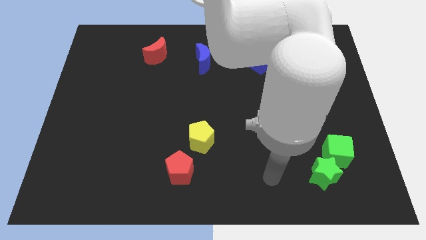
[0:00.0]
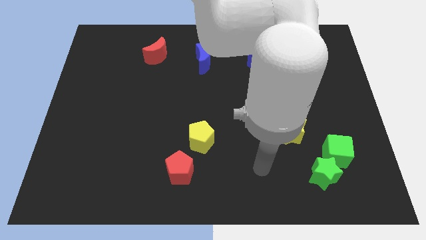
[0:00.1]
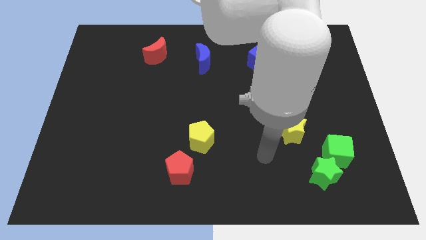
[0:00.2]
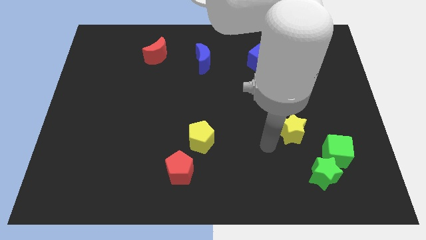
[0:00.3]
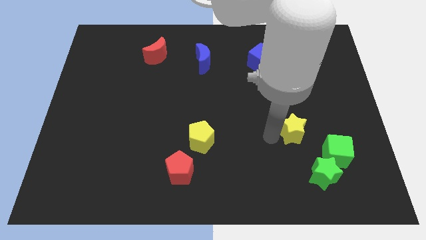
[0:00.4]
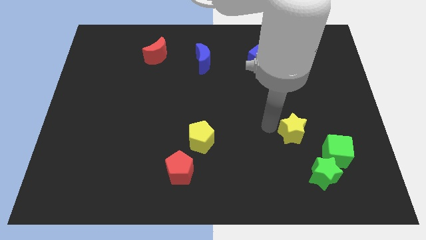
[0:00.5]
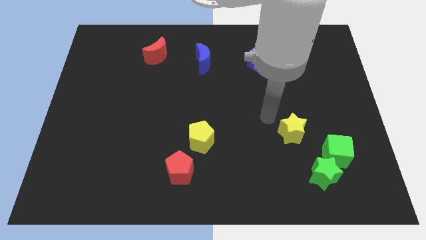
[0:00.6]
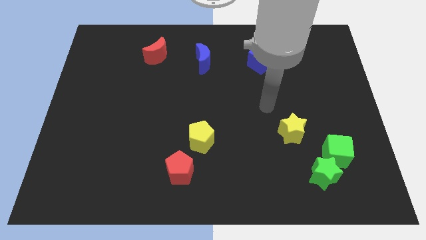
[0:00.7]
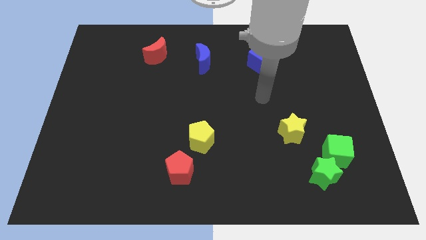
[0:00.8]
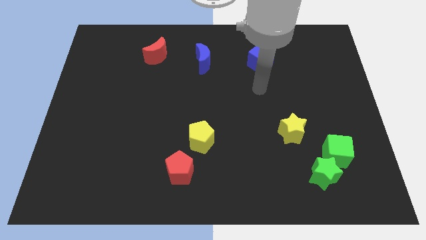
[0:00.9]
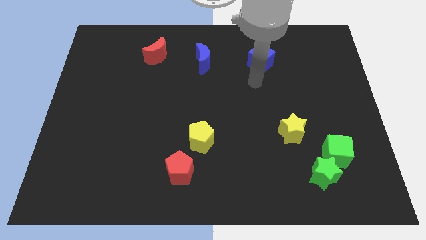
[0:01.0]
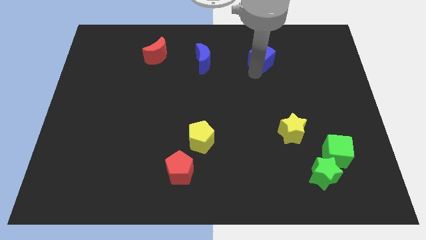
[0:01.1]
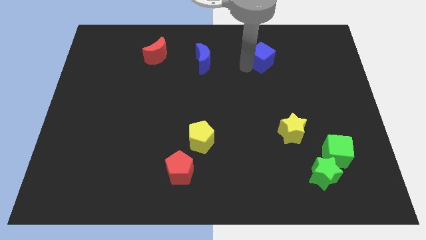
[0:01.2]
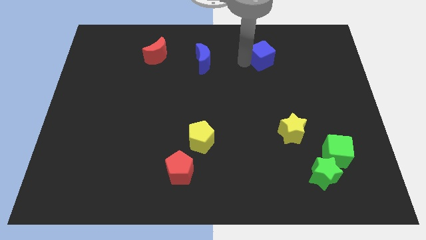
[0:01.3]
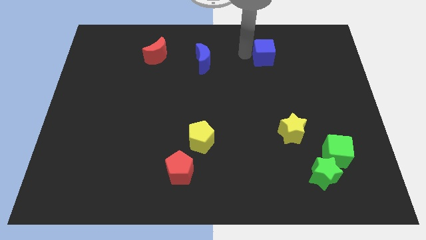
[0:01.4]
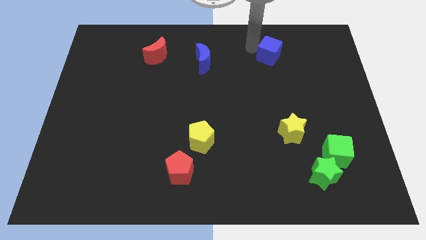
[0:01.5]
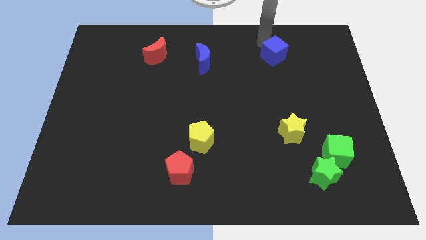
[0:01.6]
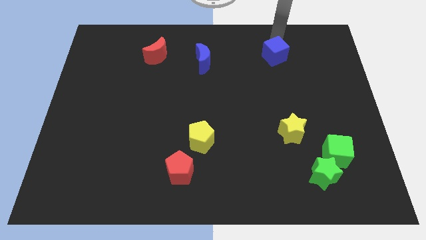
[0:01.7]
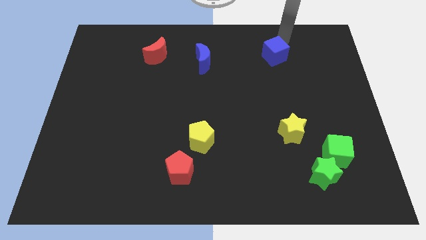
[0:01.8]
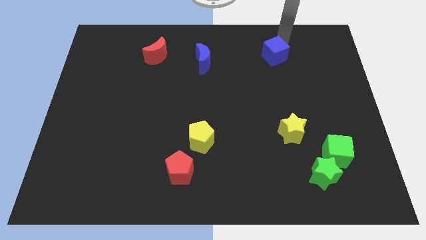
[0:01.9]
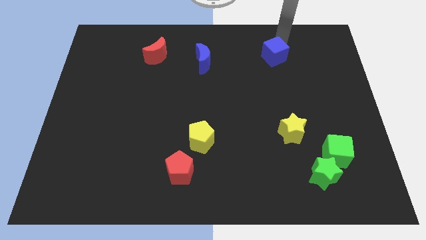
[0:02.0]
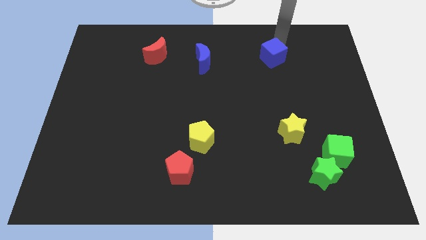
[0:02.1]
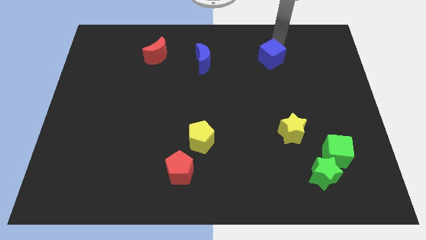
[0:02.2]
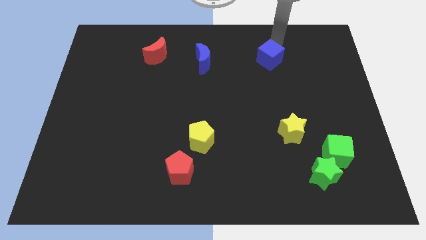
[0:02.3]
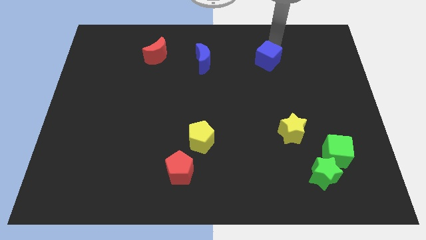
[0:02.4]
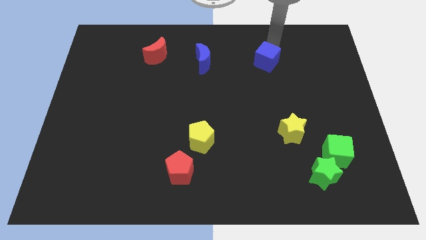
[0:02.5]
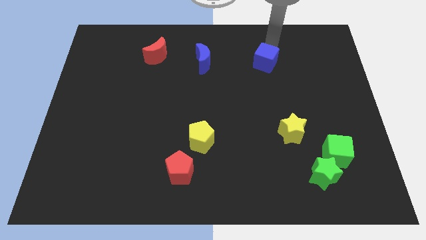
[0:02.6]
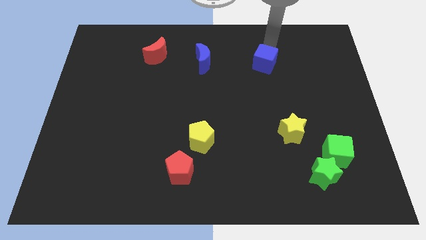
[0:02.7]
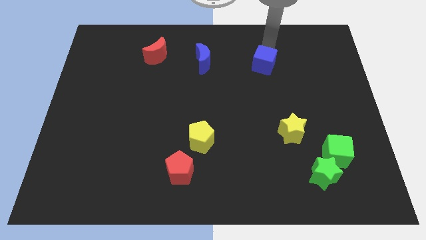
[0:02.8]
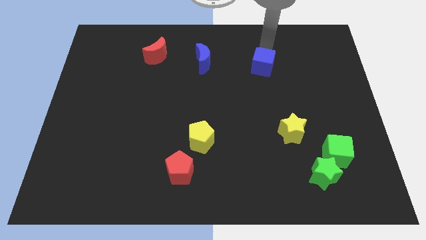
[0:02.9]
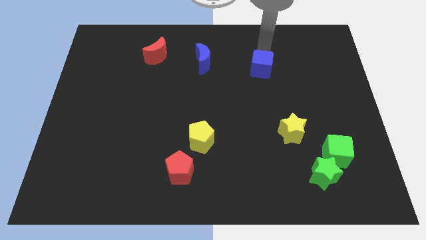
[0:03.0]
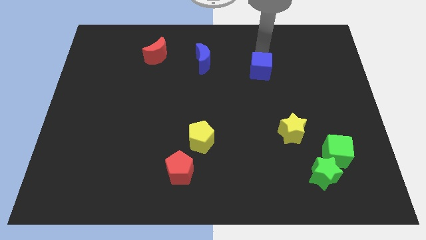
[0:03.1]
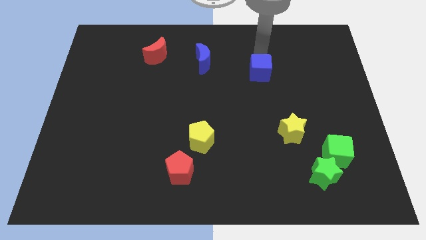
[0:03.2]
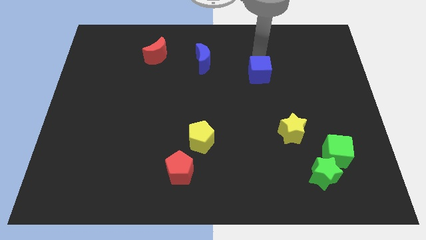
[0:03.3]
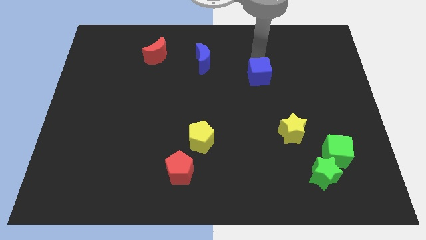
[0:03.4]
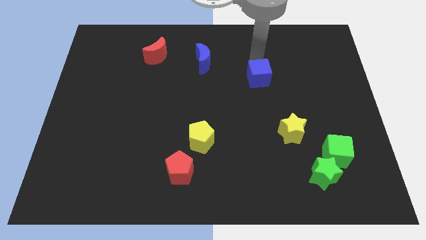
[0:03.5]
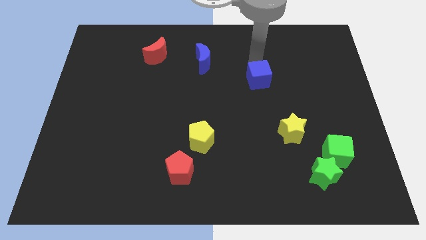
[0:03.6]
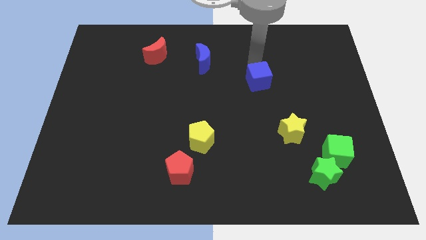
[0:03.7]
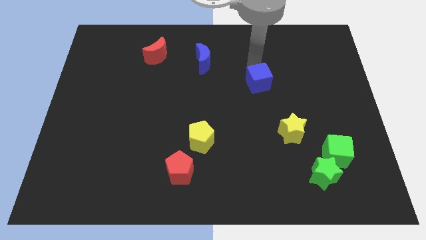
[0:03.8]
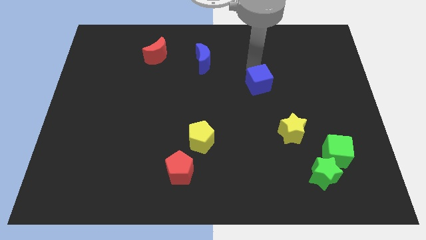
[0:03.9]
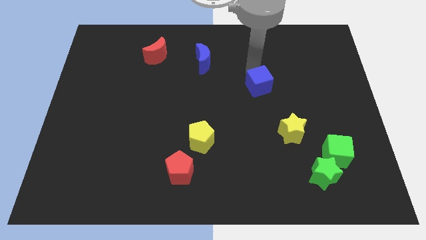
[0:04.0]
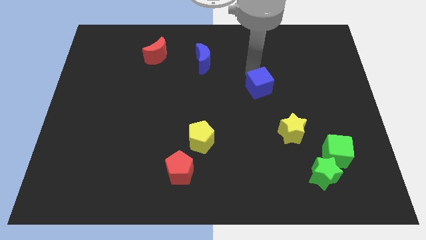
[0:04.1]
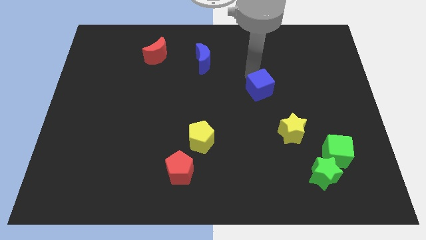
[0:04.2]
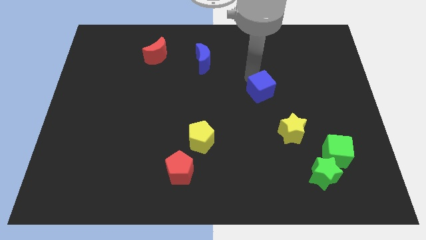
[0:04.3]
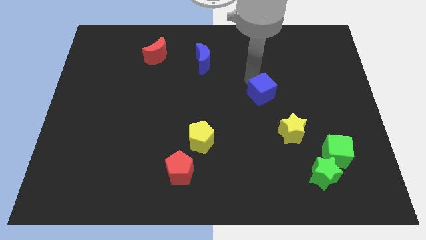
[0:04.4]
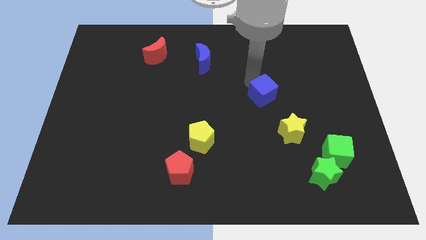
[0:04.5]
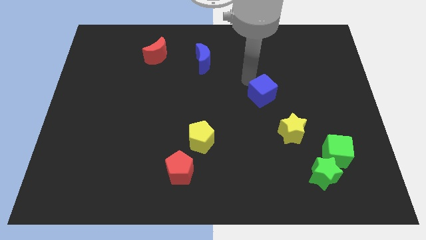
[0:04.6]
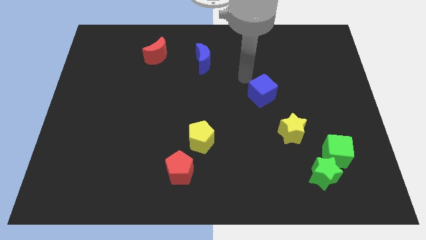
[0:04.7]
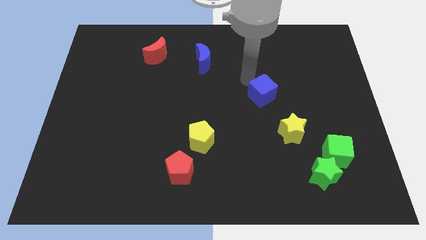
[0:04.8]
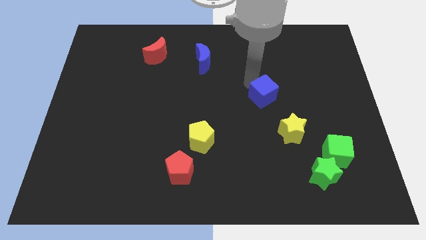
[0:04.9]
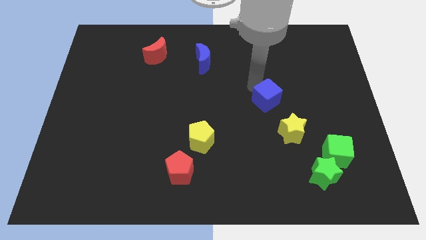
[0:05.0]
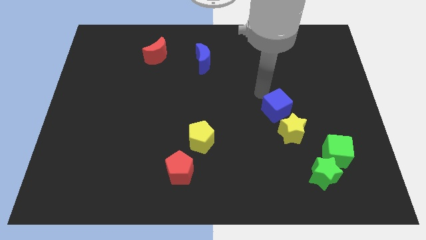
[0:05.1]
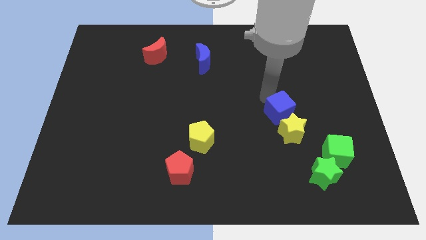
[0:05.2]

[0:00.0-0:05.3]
slide the blue cube to the yellow star

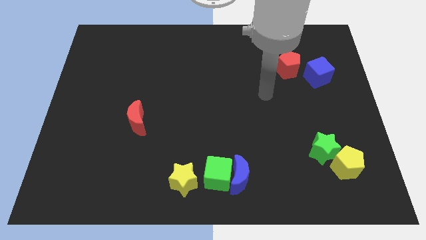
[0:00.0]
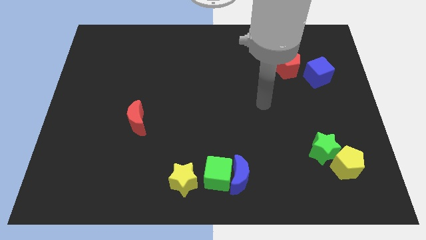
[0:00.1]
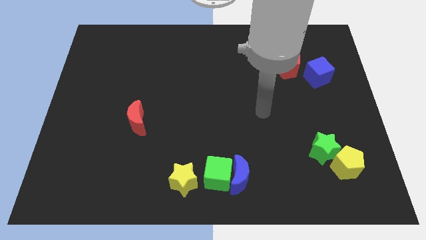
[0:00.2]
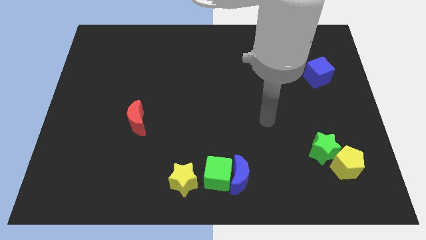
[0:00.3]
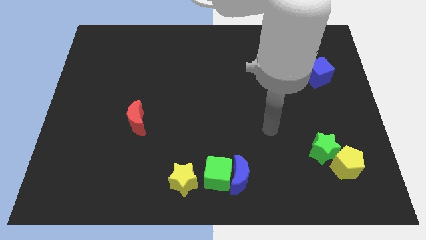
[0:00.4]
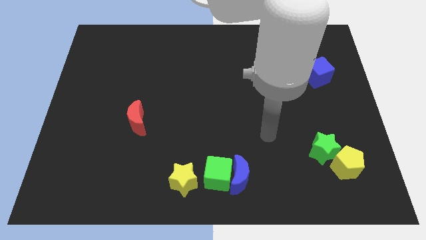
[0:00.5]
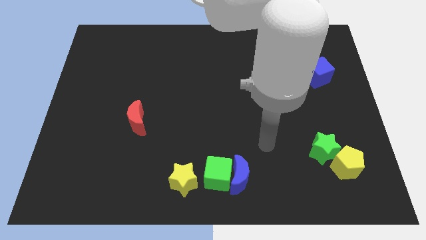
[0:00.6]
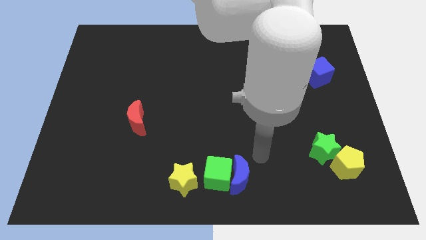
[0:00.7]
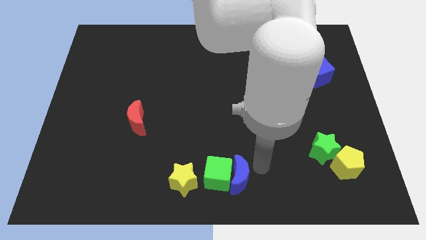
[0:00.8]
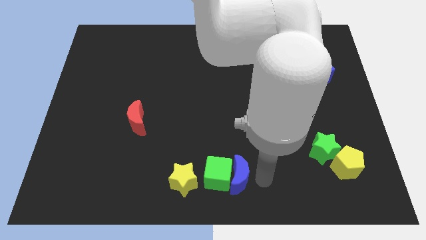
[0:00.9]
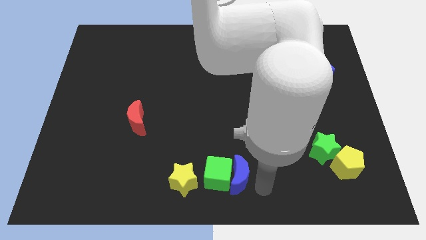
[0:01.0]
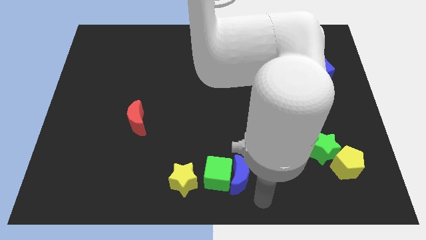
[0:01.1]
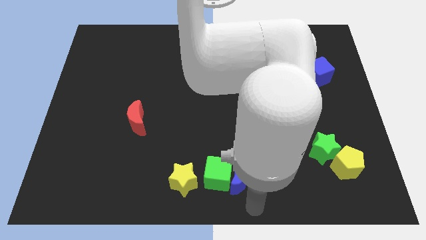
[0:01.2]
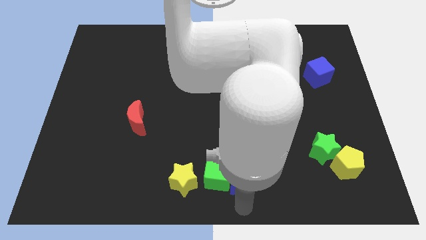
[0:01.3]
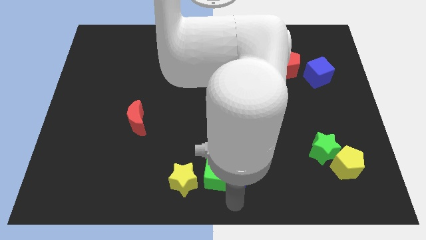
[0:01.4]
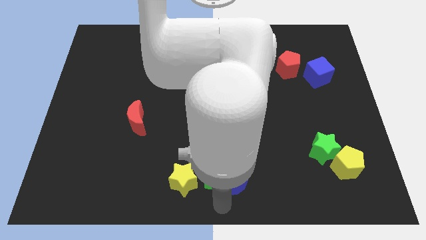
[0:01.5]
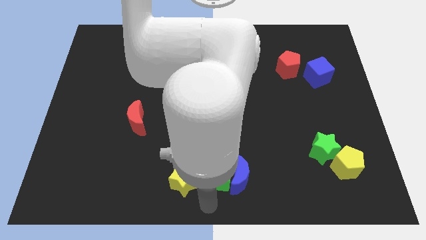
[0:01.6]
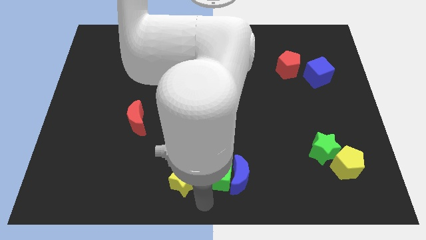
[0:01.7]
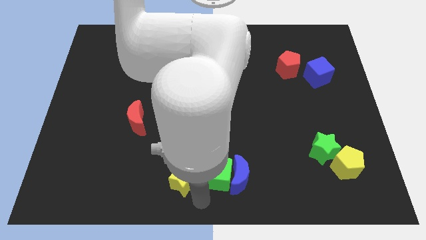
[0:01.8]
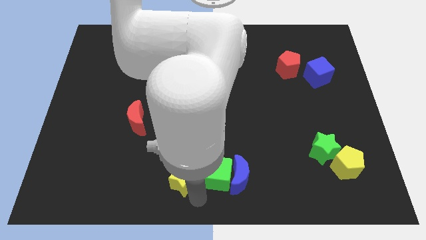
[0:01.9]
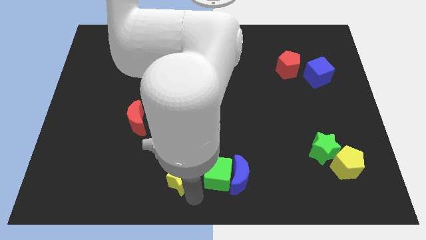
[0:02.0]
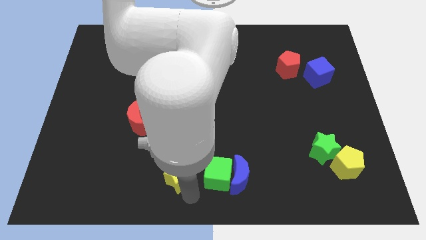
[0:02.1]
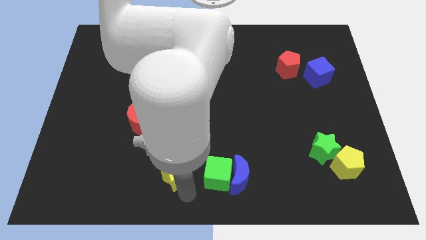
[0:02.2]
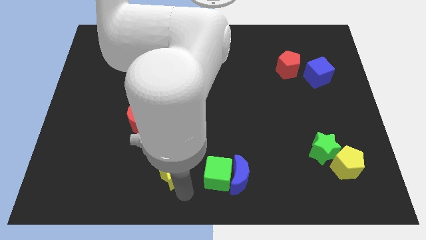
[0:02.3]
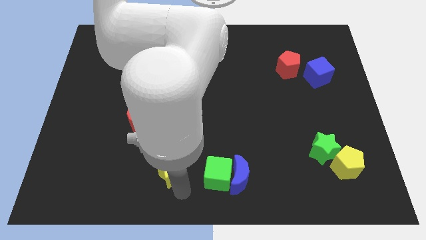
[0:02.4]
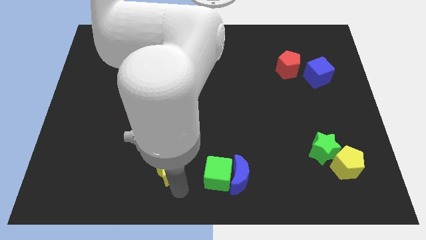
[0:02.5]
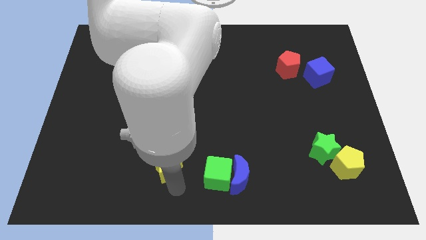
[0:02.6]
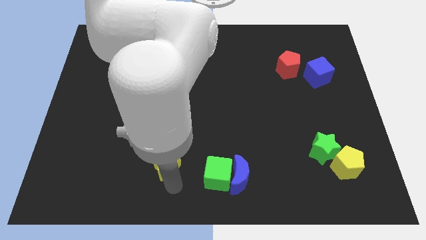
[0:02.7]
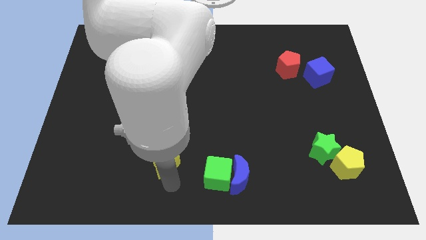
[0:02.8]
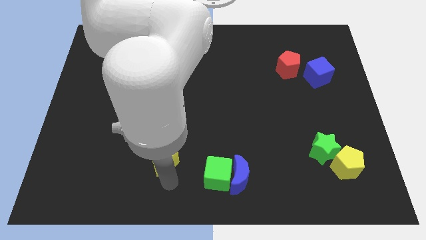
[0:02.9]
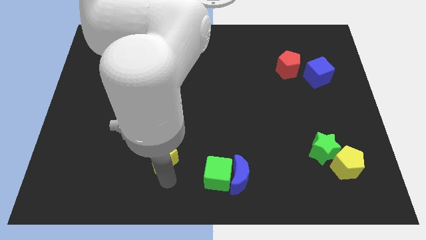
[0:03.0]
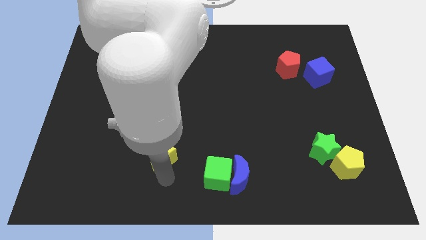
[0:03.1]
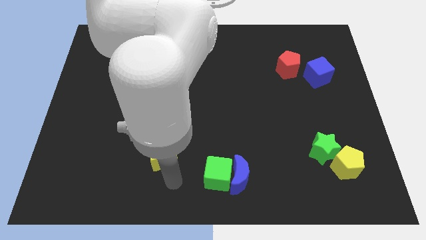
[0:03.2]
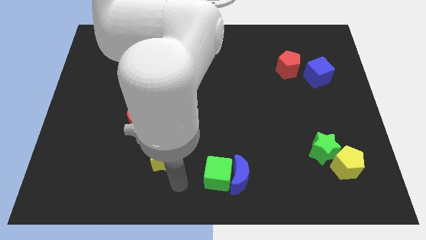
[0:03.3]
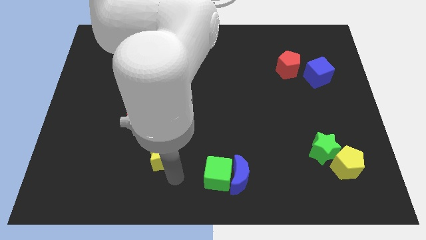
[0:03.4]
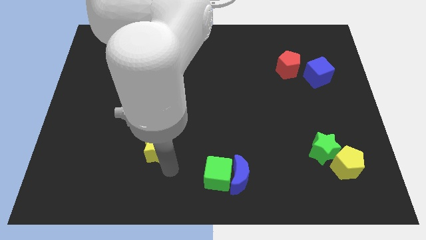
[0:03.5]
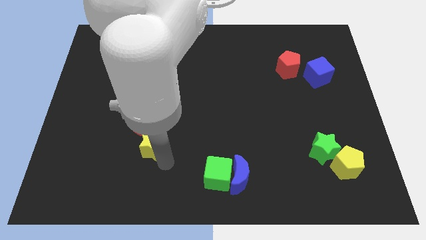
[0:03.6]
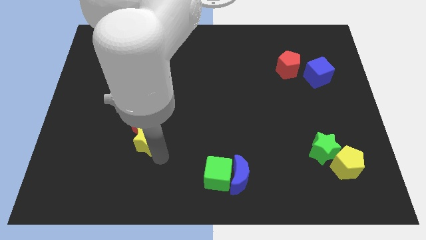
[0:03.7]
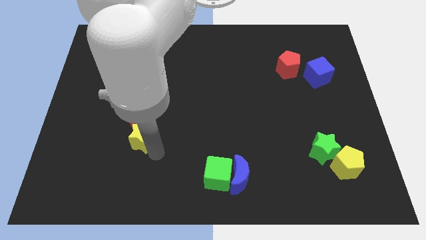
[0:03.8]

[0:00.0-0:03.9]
slide the yellow star to the red moon
